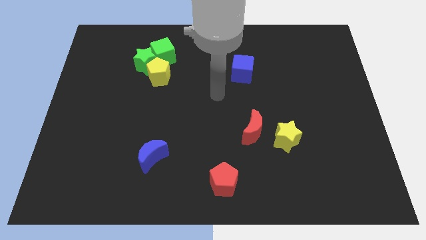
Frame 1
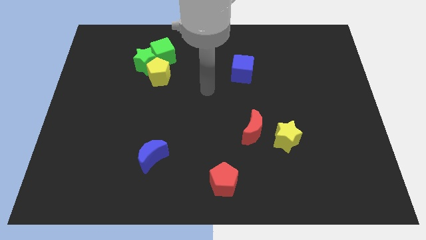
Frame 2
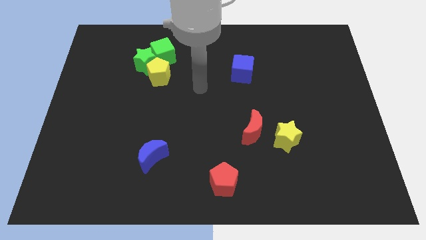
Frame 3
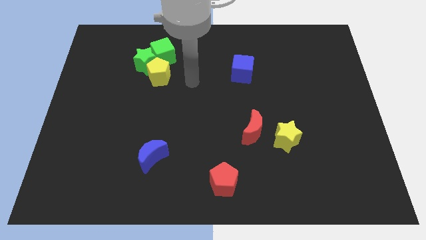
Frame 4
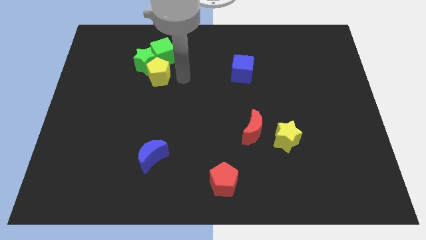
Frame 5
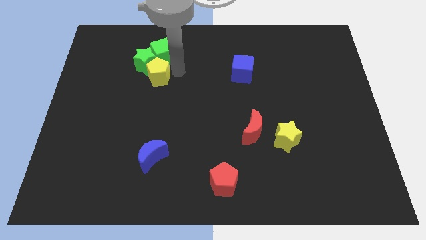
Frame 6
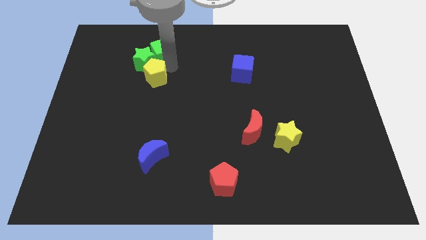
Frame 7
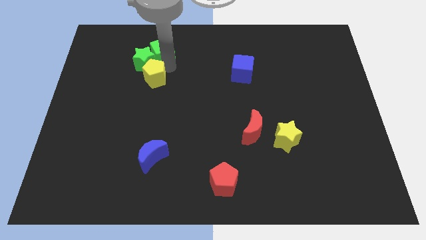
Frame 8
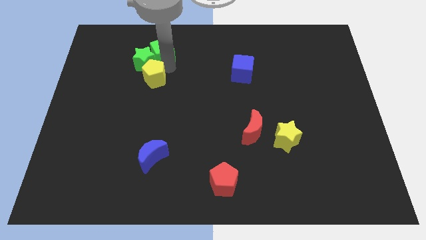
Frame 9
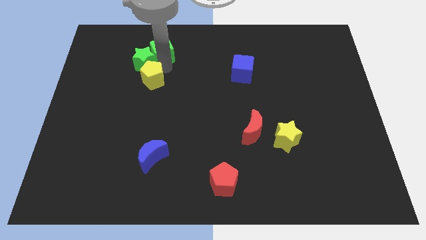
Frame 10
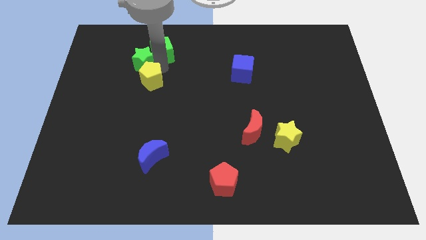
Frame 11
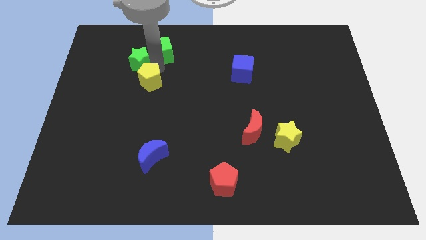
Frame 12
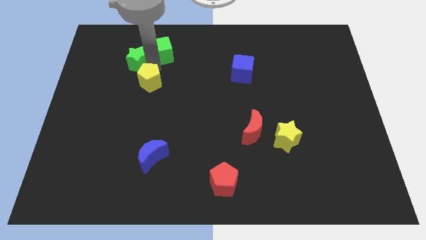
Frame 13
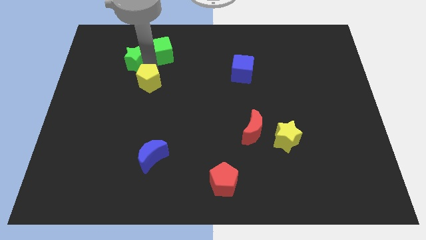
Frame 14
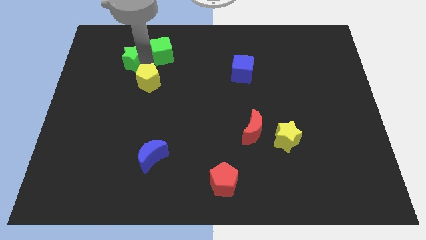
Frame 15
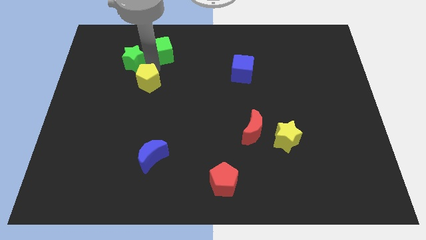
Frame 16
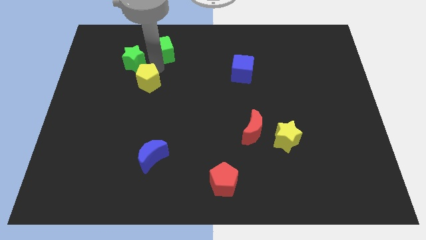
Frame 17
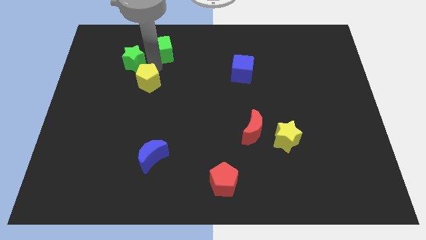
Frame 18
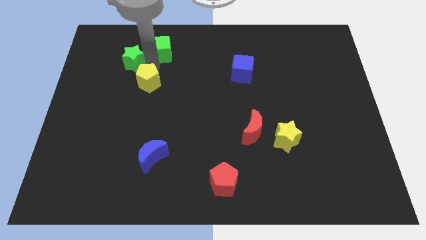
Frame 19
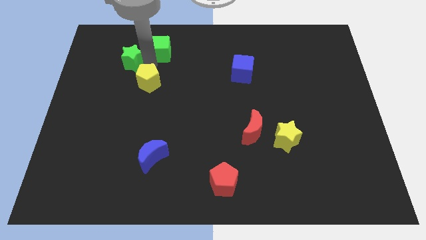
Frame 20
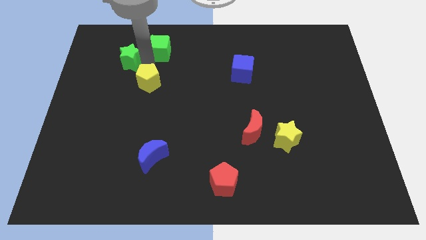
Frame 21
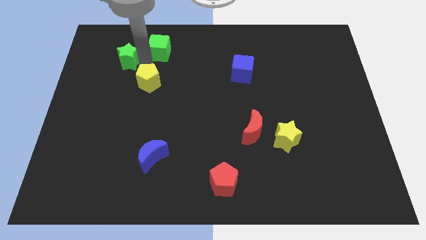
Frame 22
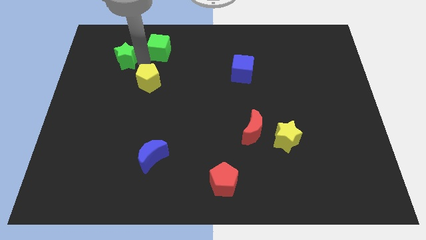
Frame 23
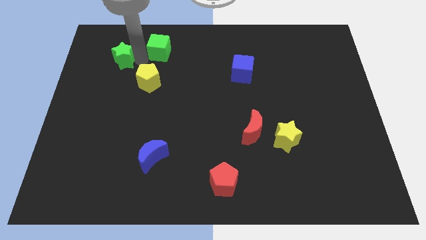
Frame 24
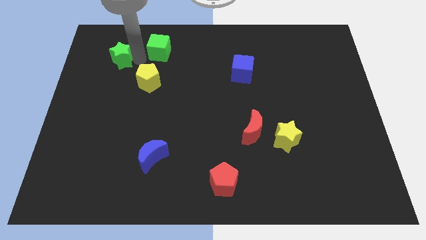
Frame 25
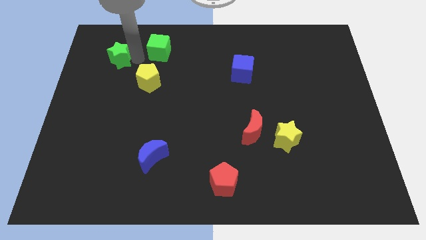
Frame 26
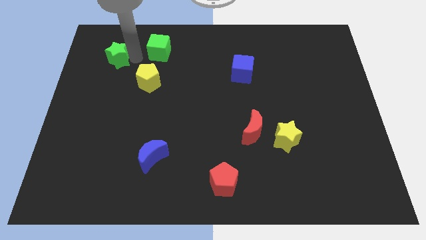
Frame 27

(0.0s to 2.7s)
pull the green star apart from the green cube and yellow pentagon

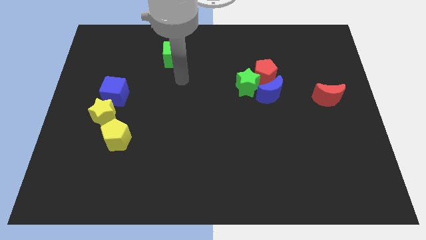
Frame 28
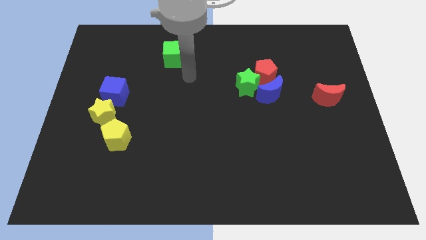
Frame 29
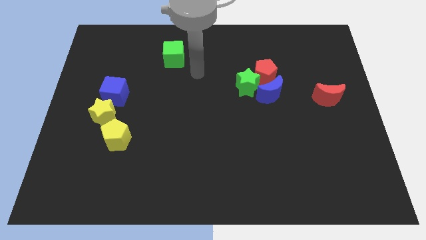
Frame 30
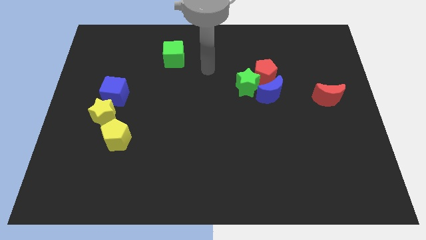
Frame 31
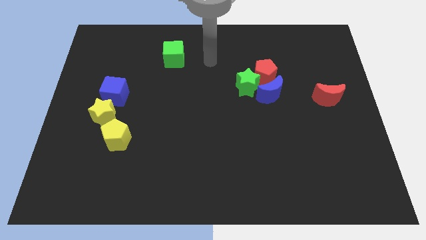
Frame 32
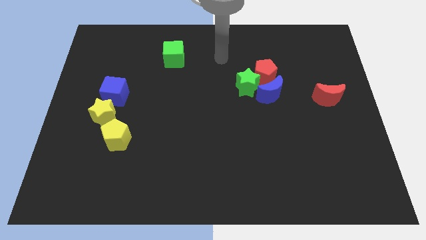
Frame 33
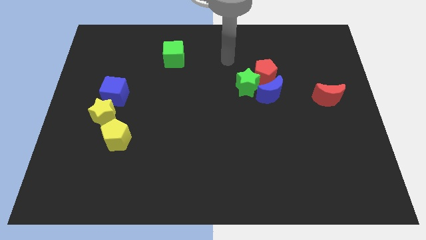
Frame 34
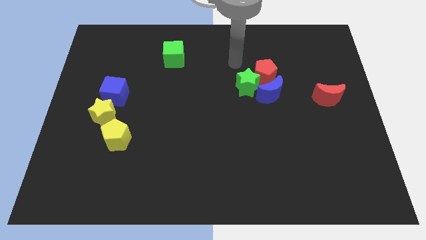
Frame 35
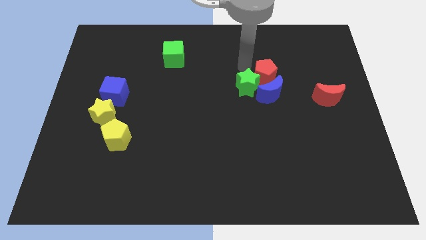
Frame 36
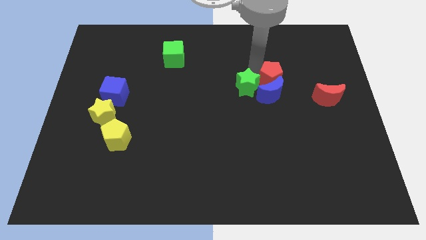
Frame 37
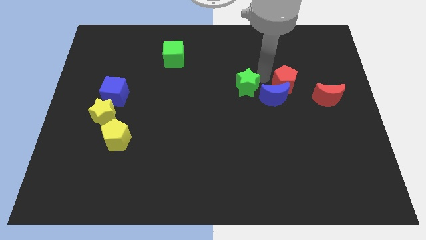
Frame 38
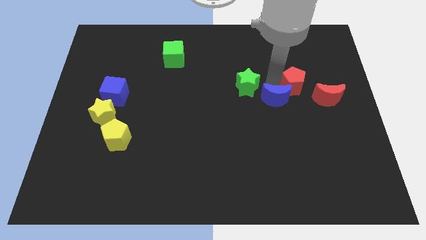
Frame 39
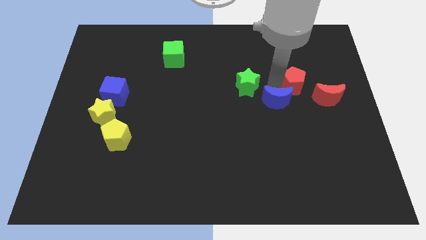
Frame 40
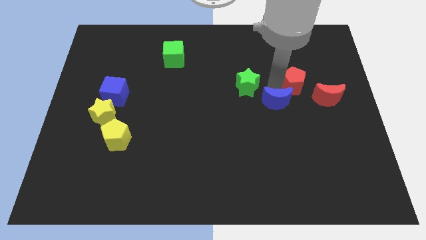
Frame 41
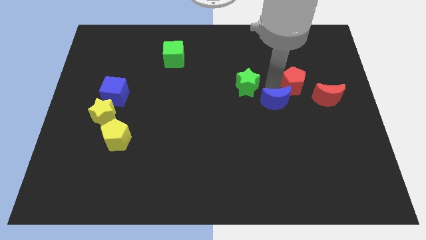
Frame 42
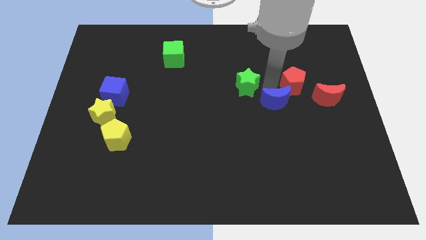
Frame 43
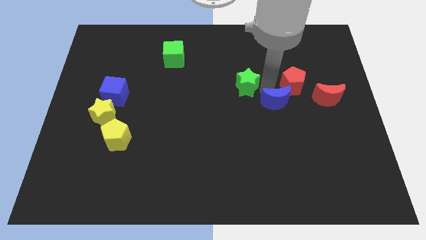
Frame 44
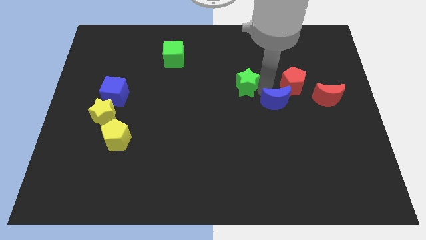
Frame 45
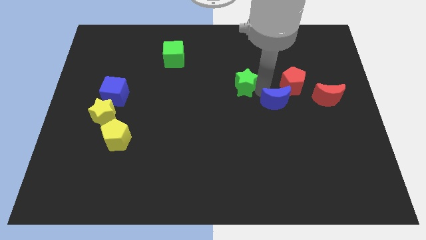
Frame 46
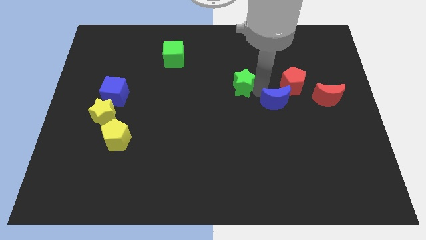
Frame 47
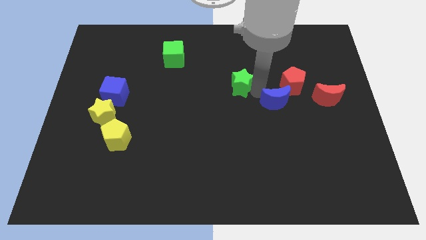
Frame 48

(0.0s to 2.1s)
separate the green star from the red pentagon and blue moon

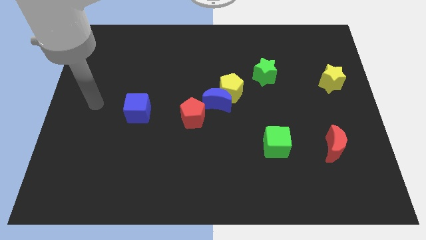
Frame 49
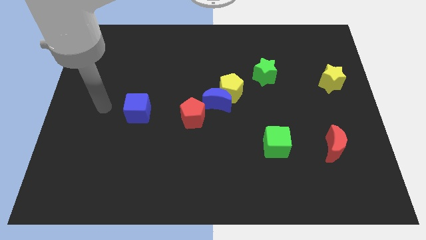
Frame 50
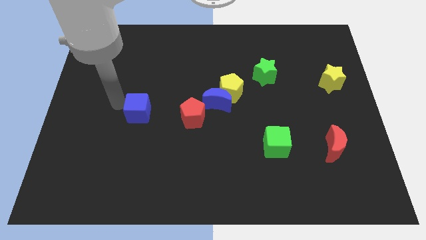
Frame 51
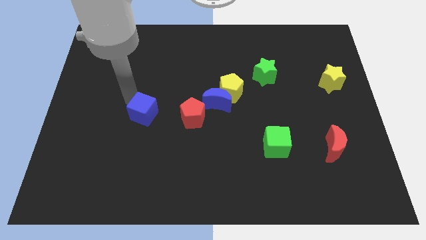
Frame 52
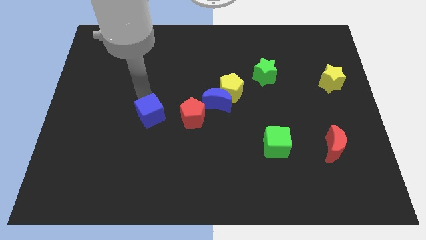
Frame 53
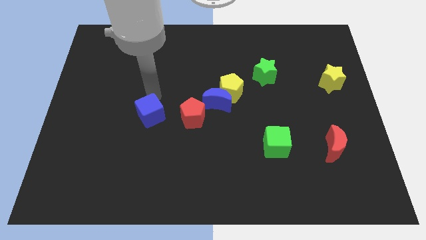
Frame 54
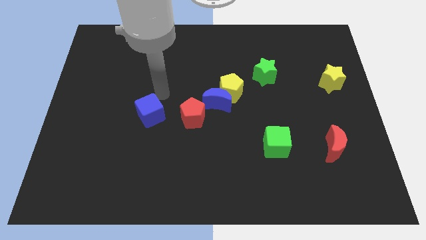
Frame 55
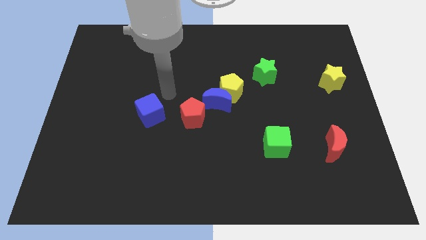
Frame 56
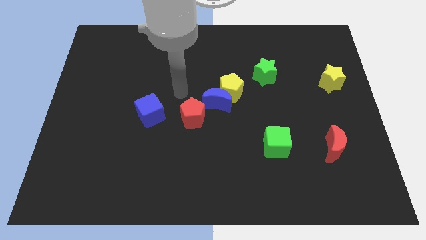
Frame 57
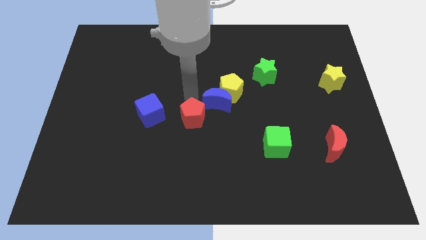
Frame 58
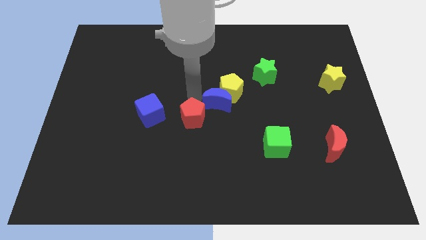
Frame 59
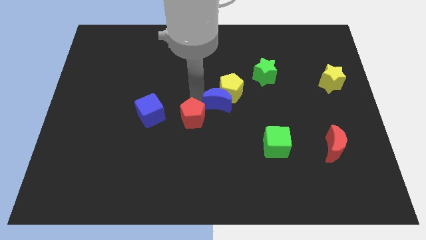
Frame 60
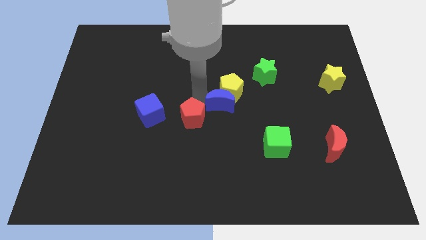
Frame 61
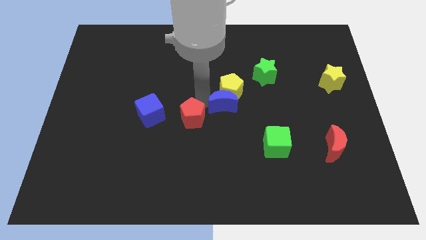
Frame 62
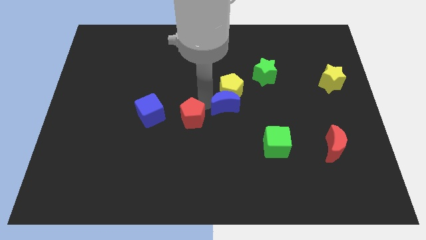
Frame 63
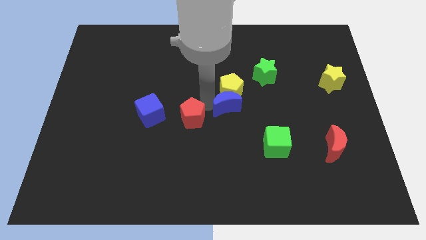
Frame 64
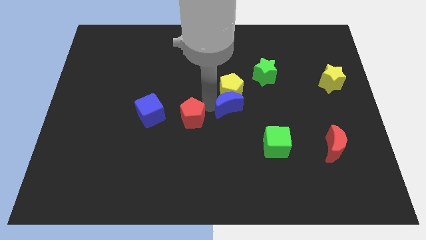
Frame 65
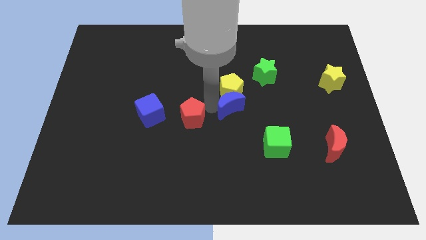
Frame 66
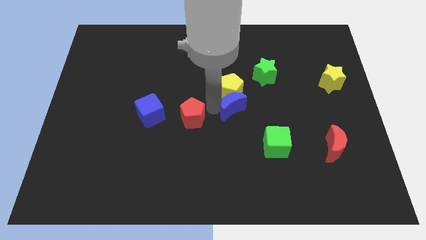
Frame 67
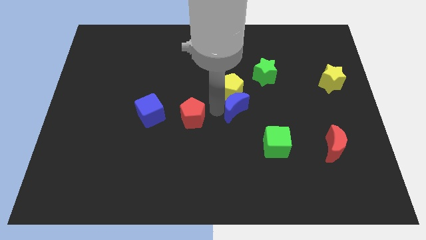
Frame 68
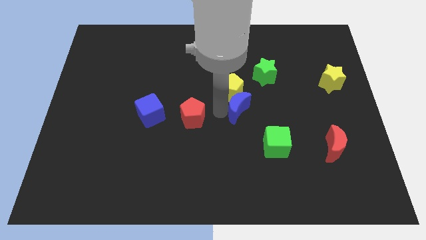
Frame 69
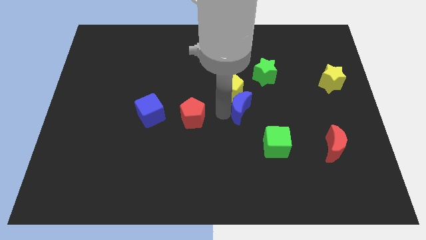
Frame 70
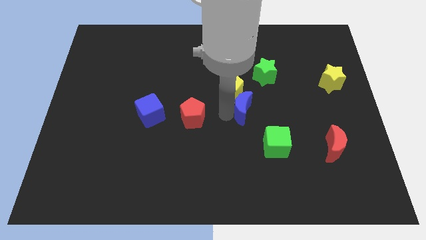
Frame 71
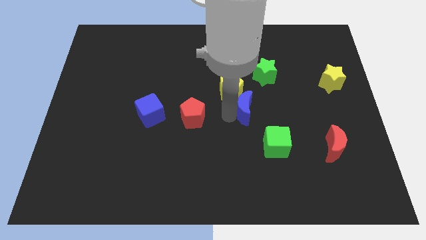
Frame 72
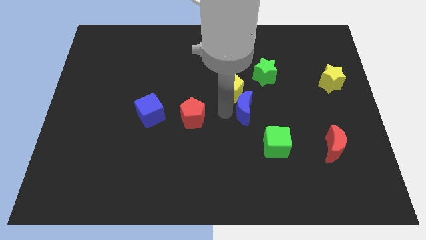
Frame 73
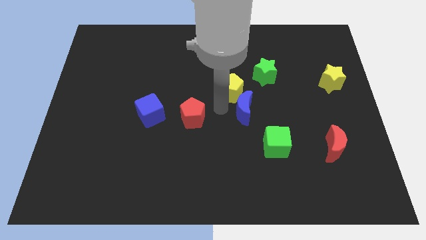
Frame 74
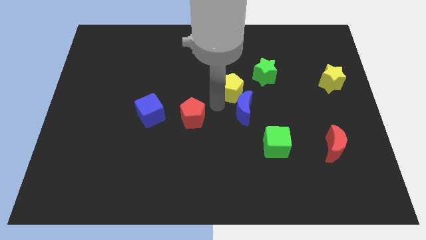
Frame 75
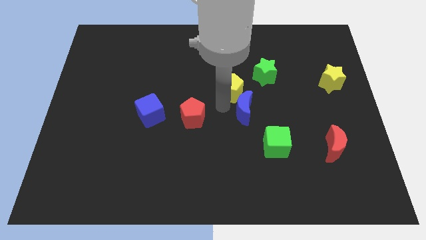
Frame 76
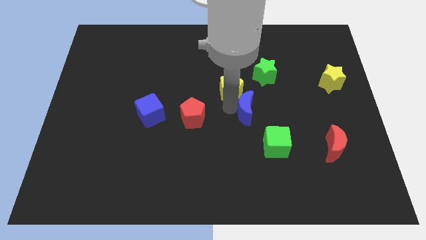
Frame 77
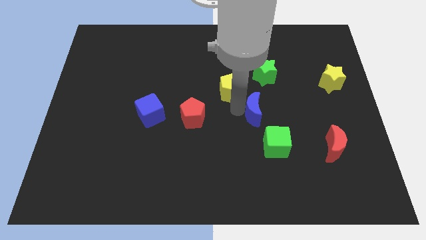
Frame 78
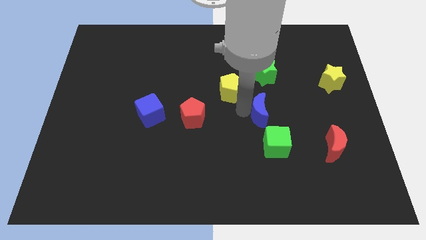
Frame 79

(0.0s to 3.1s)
move the blue moon away from the yellow pentagon and red pentagon

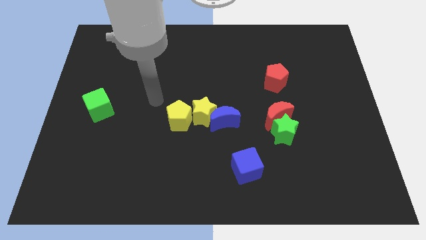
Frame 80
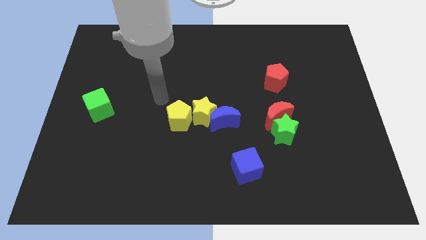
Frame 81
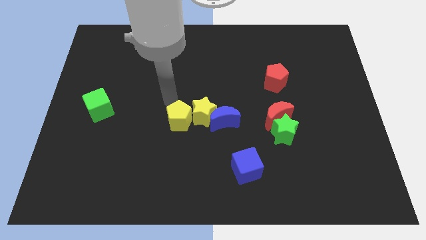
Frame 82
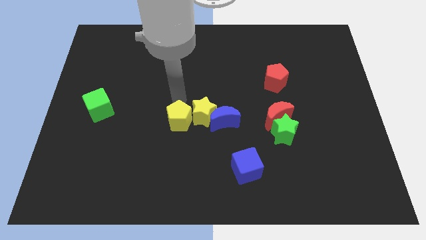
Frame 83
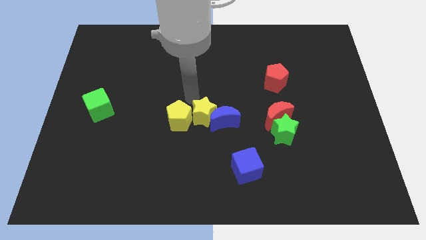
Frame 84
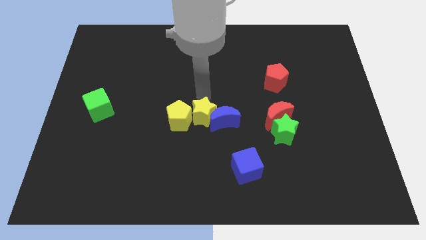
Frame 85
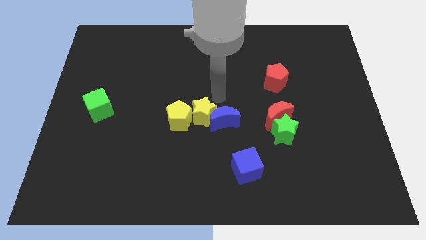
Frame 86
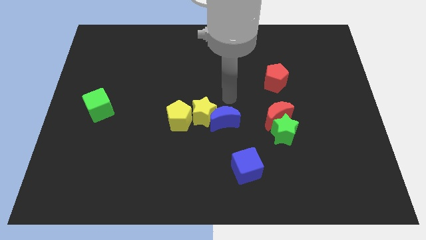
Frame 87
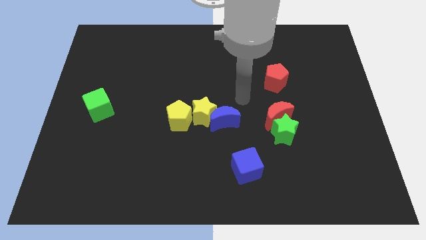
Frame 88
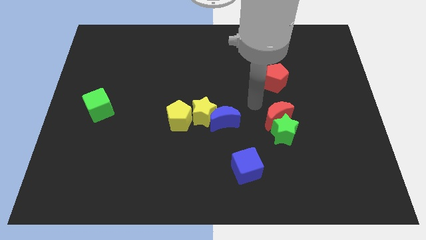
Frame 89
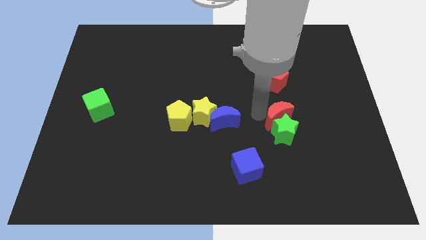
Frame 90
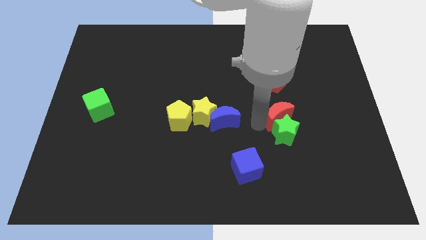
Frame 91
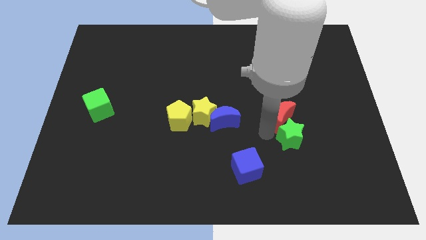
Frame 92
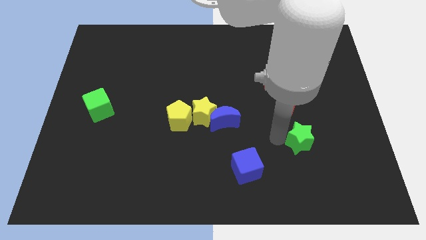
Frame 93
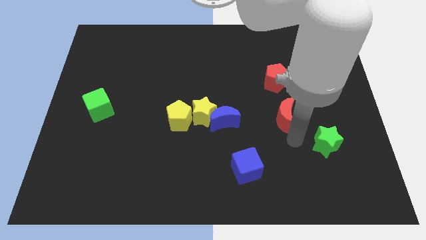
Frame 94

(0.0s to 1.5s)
separate the red moon from the green star
